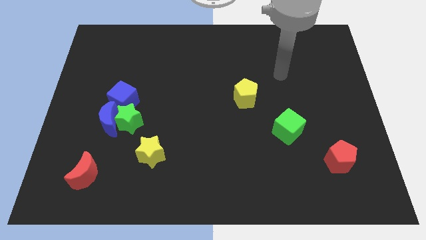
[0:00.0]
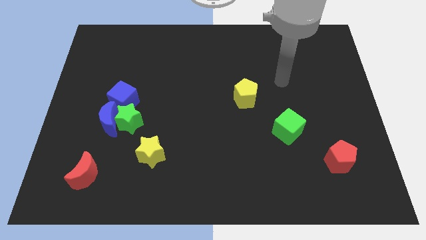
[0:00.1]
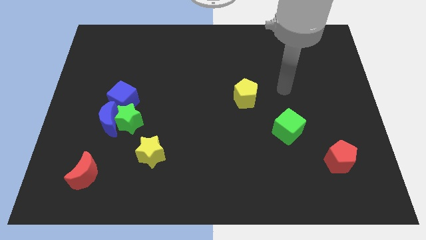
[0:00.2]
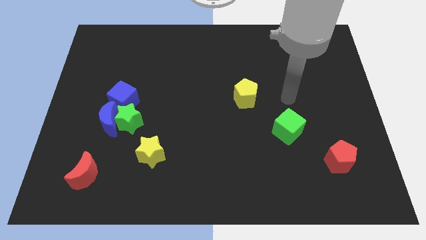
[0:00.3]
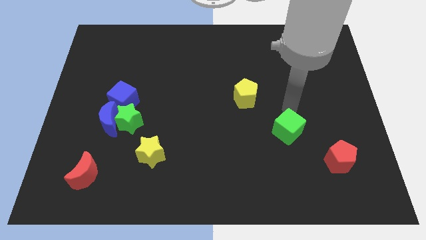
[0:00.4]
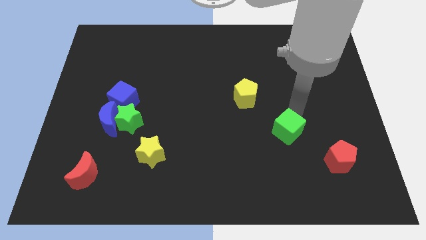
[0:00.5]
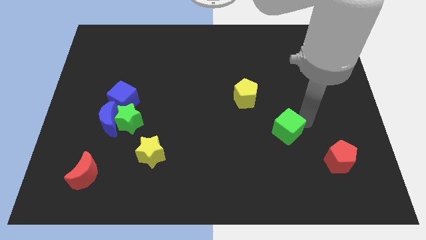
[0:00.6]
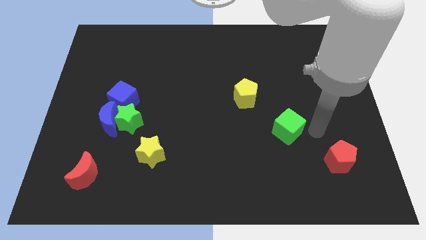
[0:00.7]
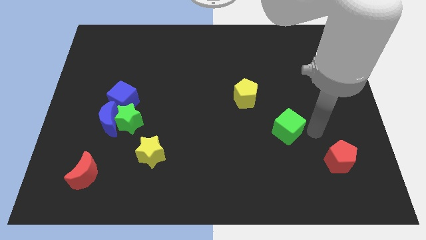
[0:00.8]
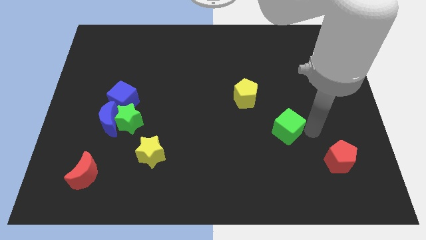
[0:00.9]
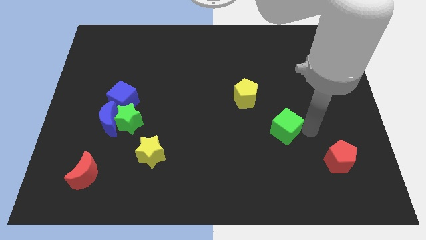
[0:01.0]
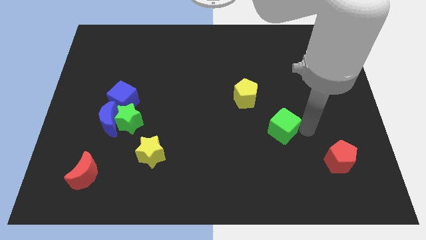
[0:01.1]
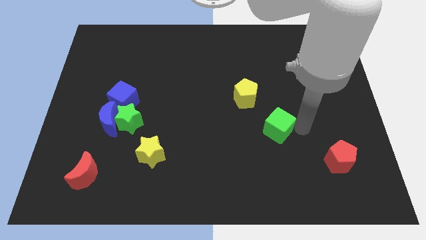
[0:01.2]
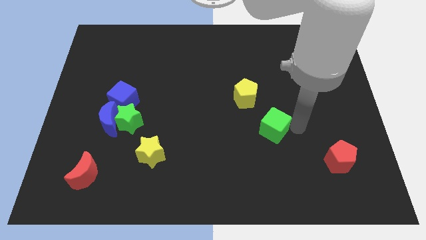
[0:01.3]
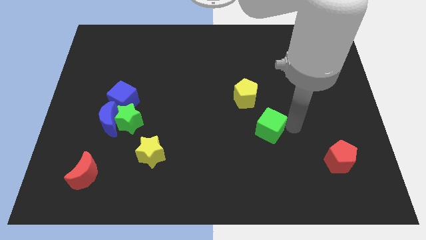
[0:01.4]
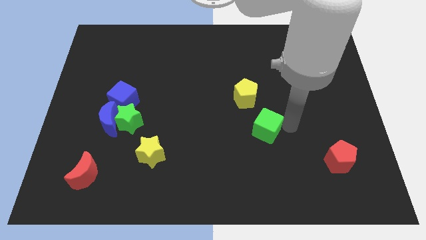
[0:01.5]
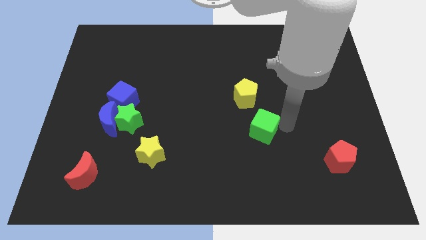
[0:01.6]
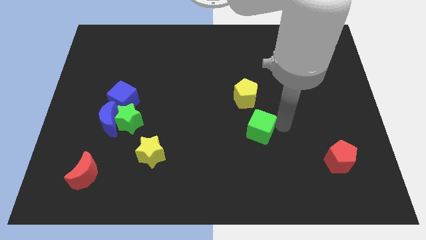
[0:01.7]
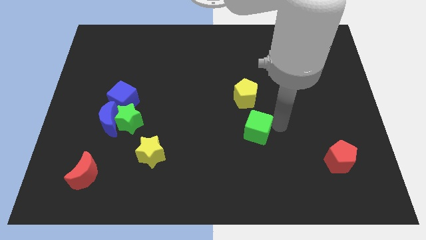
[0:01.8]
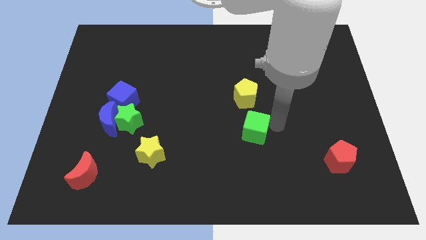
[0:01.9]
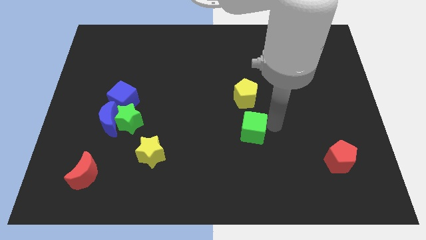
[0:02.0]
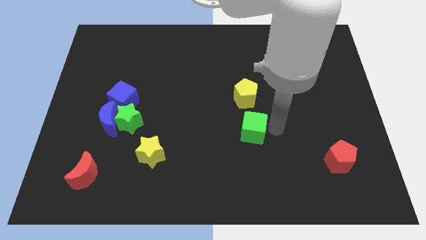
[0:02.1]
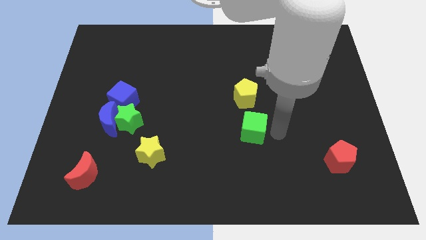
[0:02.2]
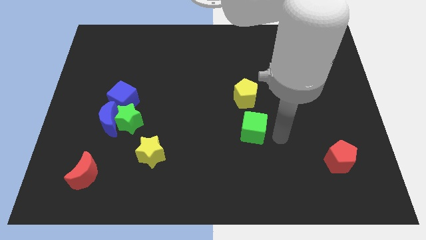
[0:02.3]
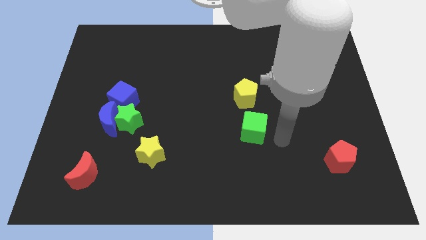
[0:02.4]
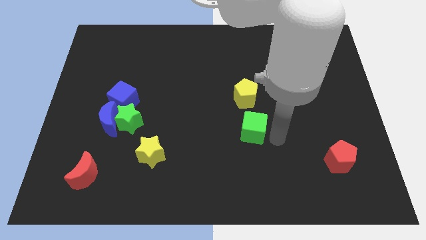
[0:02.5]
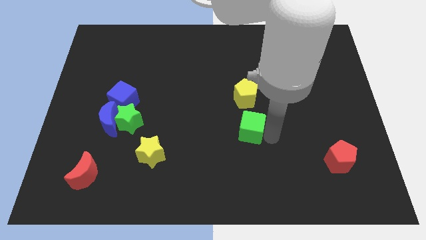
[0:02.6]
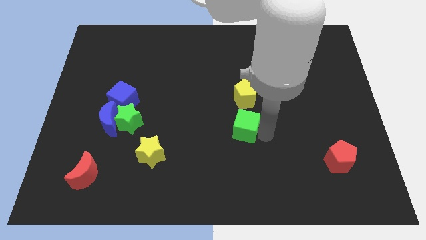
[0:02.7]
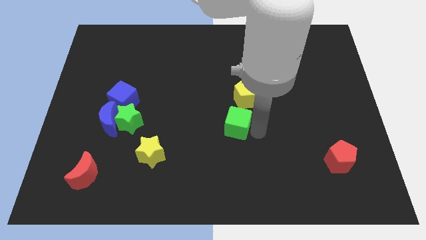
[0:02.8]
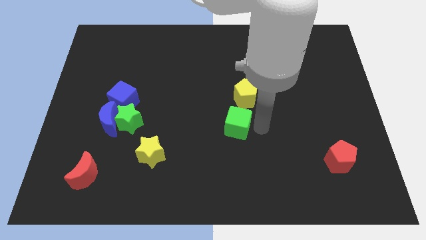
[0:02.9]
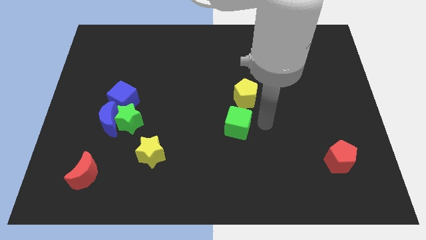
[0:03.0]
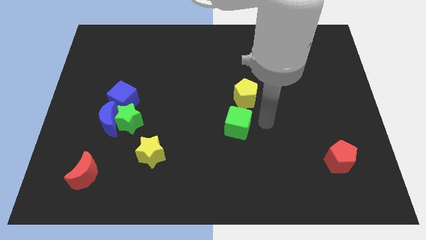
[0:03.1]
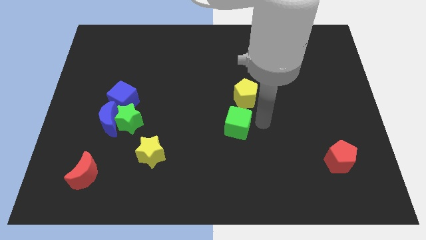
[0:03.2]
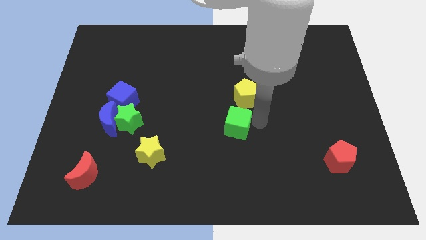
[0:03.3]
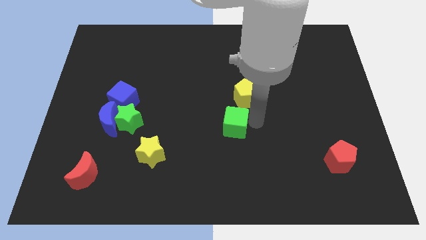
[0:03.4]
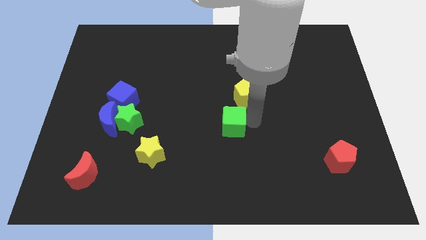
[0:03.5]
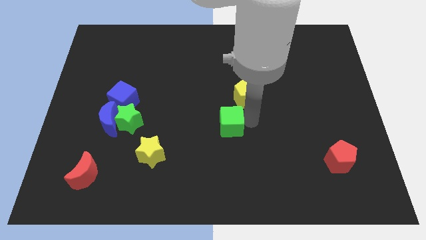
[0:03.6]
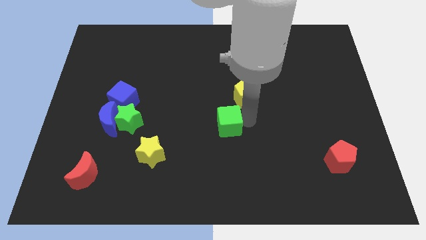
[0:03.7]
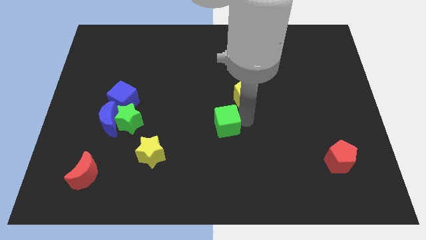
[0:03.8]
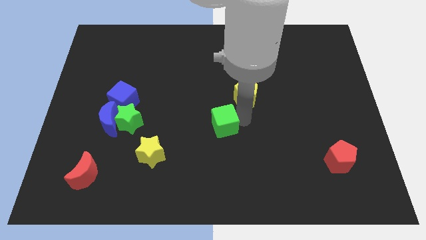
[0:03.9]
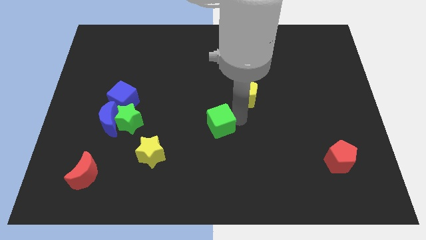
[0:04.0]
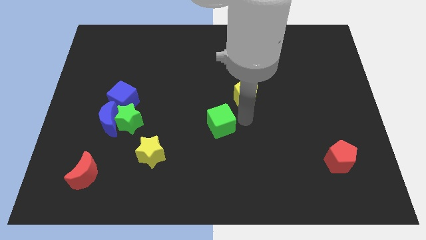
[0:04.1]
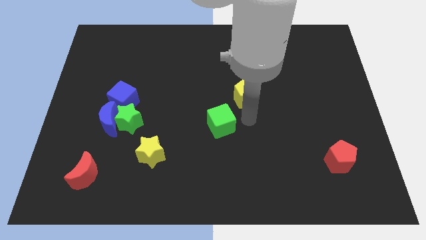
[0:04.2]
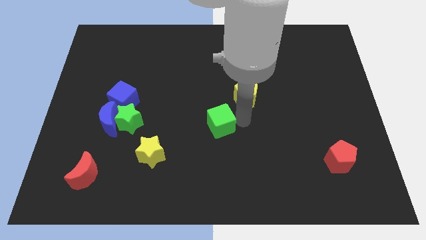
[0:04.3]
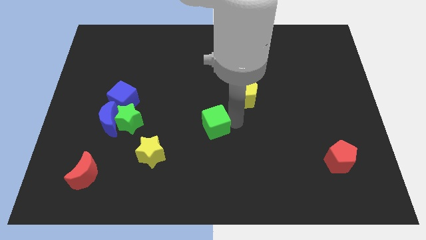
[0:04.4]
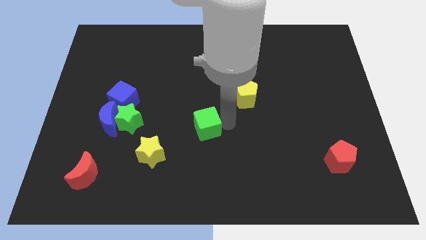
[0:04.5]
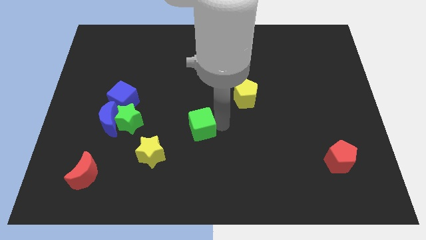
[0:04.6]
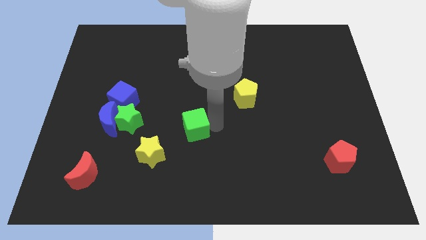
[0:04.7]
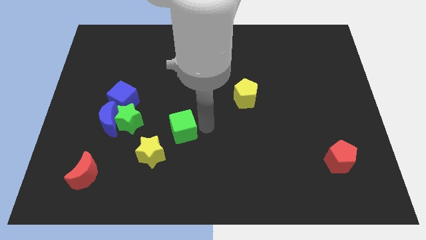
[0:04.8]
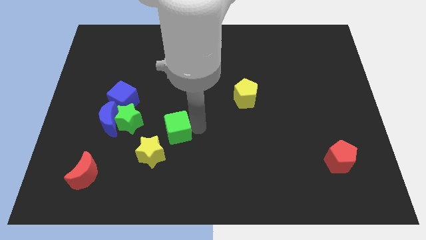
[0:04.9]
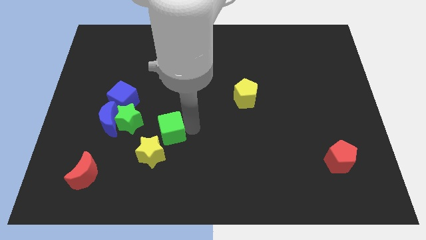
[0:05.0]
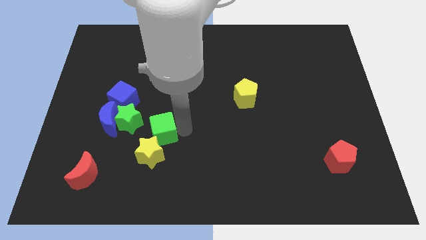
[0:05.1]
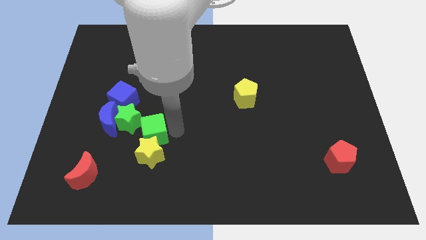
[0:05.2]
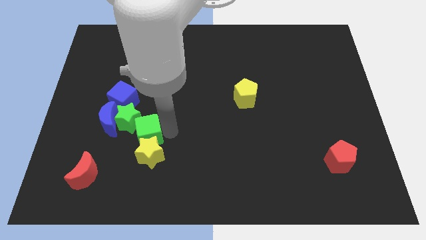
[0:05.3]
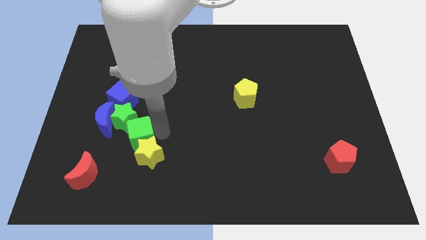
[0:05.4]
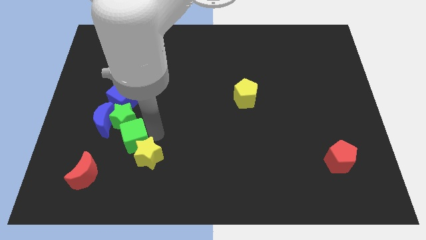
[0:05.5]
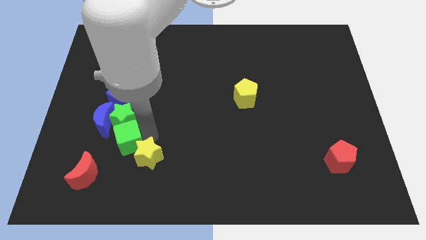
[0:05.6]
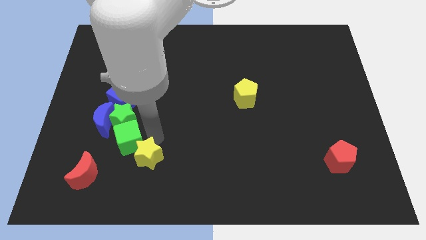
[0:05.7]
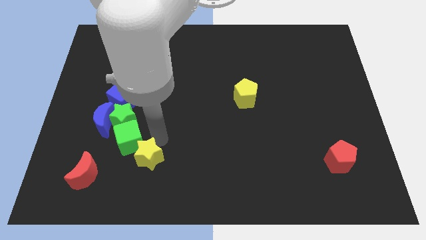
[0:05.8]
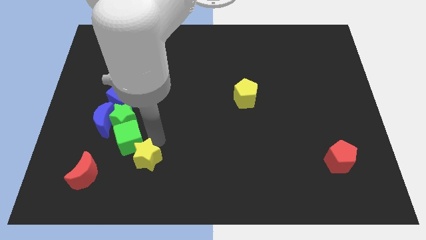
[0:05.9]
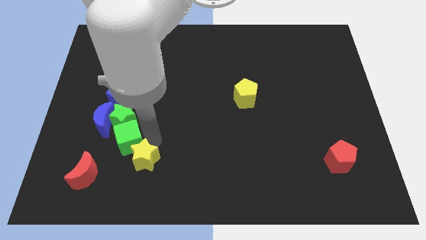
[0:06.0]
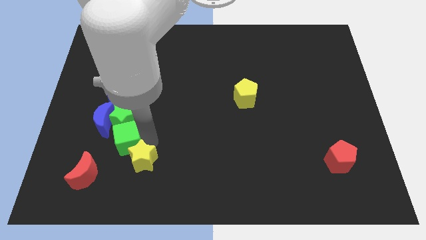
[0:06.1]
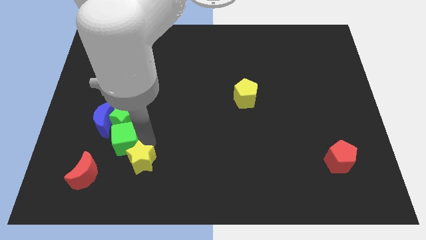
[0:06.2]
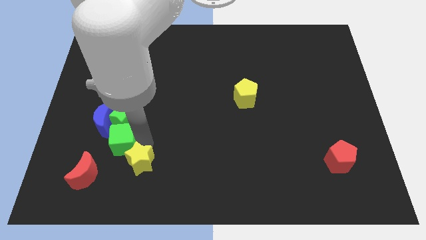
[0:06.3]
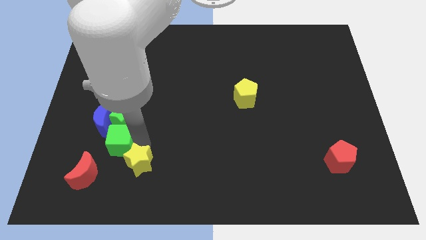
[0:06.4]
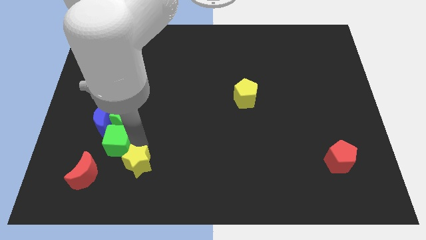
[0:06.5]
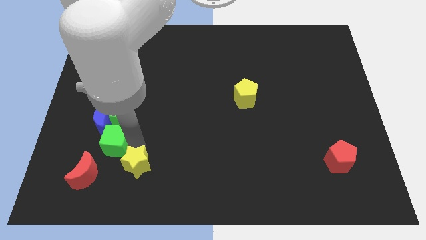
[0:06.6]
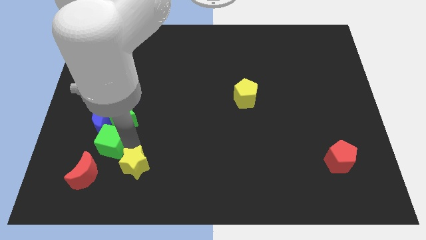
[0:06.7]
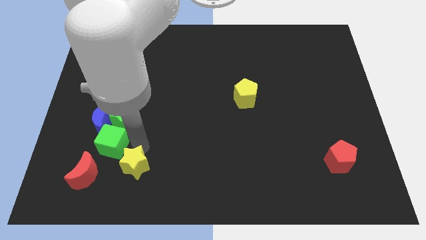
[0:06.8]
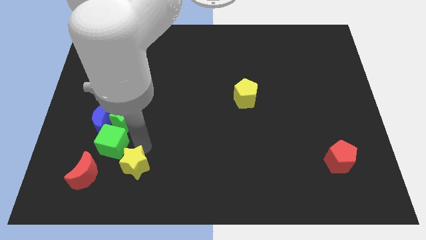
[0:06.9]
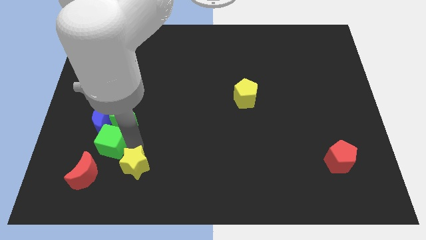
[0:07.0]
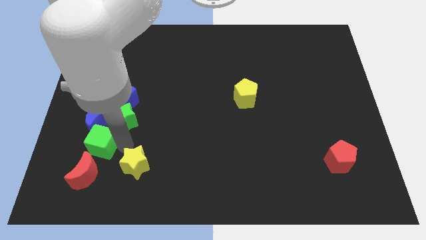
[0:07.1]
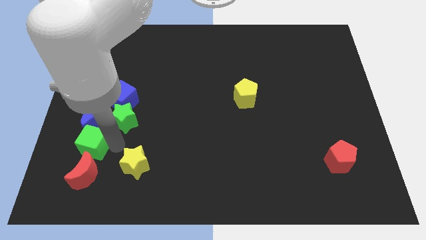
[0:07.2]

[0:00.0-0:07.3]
slide the green cube to the bottom left of the blue moon

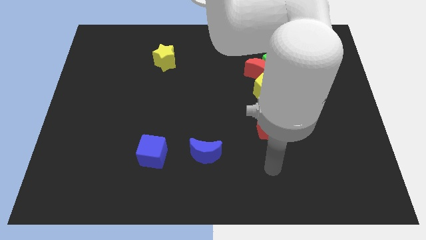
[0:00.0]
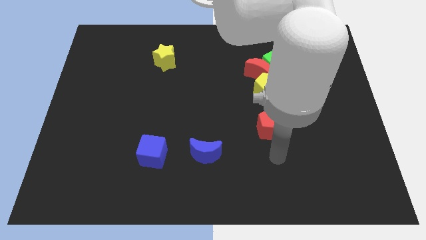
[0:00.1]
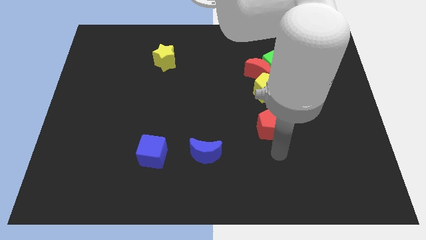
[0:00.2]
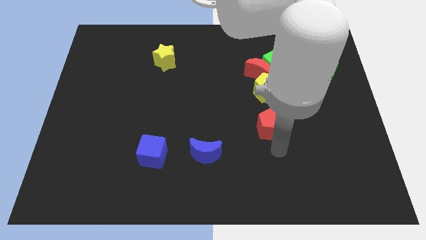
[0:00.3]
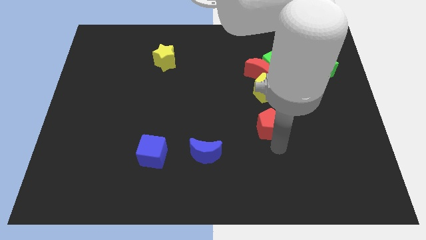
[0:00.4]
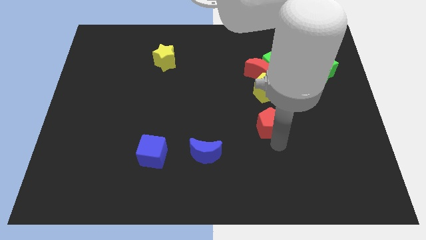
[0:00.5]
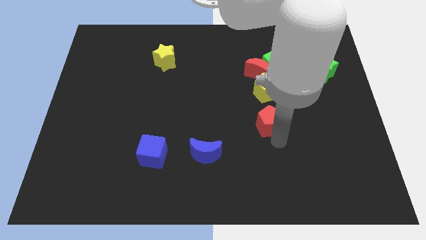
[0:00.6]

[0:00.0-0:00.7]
move the red pentagon below the red moon
